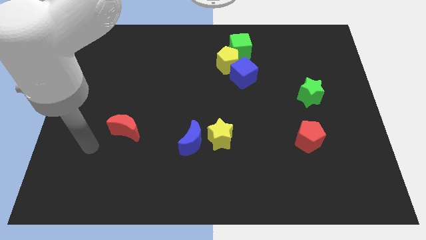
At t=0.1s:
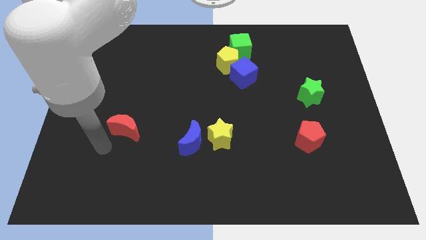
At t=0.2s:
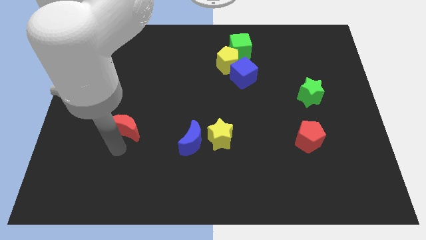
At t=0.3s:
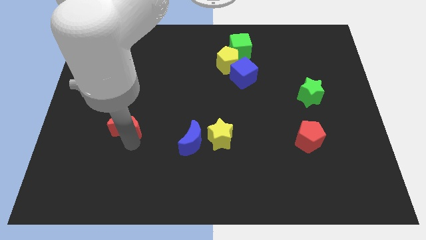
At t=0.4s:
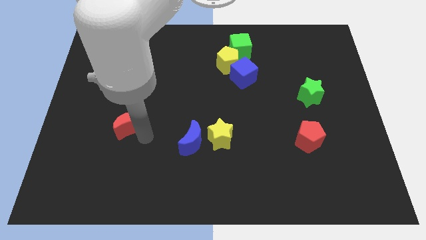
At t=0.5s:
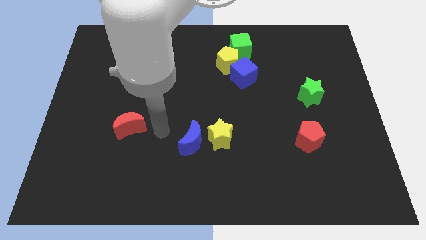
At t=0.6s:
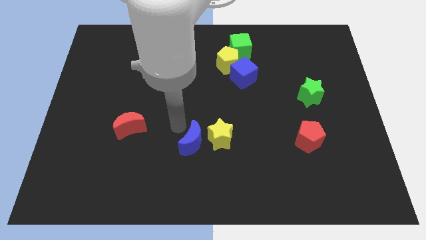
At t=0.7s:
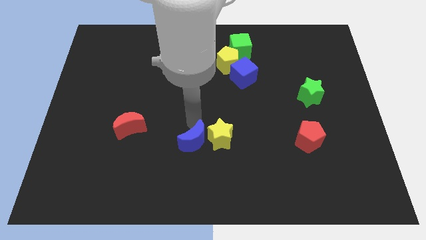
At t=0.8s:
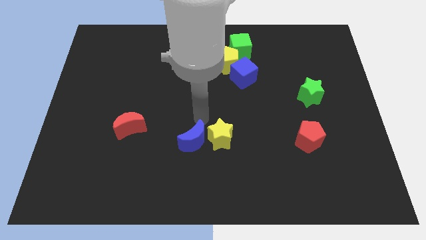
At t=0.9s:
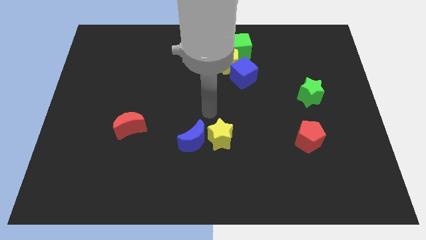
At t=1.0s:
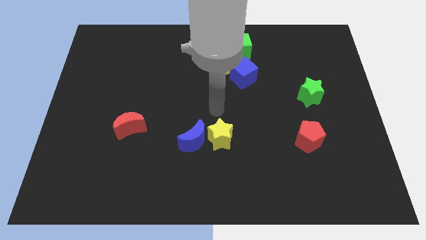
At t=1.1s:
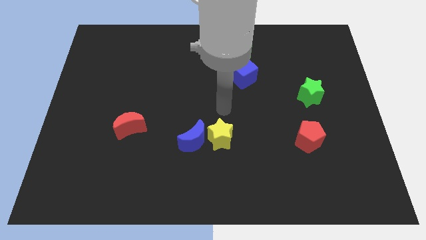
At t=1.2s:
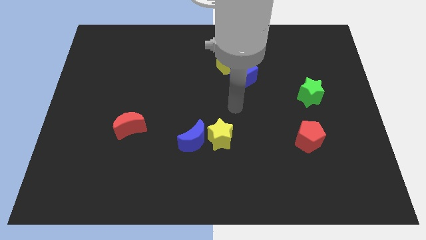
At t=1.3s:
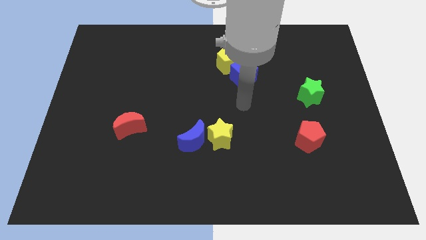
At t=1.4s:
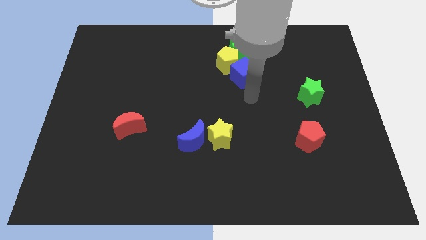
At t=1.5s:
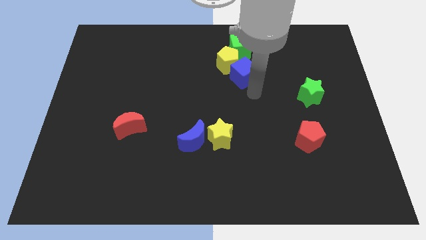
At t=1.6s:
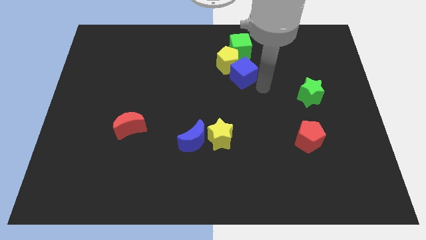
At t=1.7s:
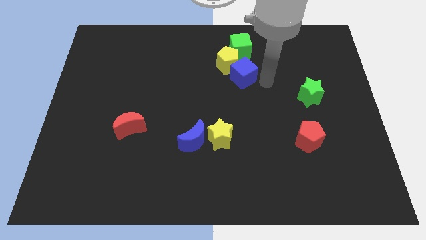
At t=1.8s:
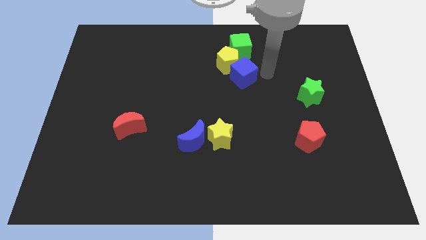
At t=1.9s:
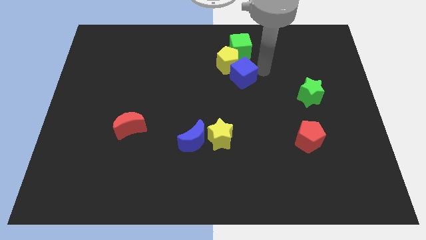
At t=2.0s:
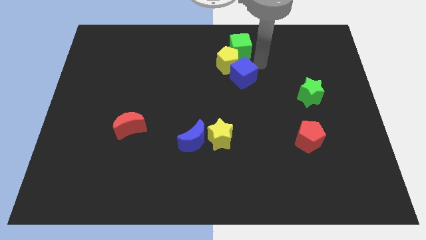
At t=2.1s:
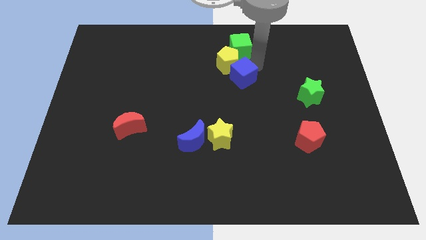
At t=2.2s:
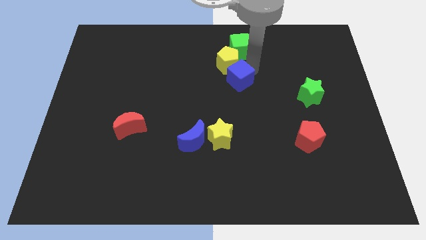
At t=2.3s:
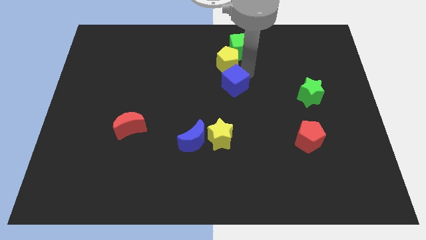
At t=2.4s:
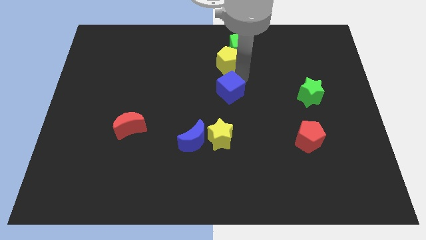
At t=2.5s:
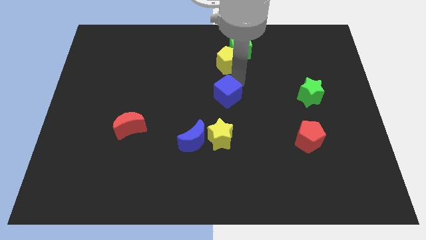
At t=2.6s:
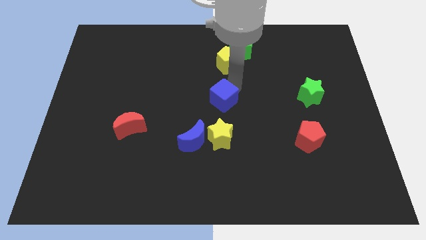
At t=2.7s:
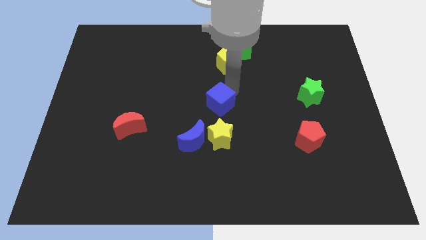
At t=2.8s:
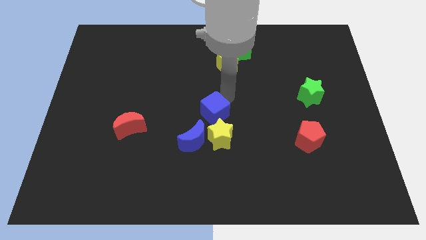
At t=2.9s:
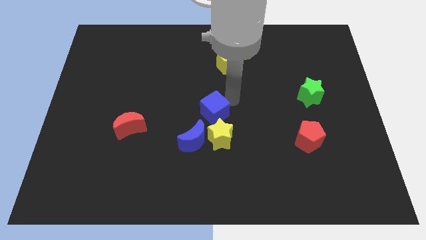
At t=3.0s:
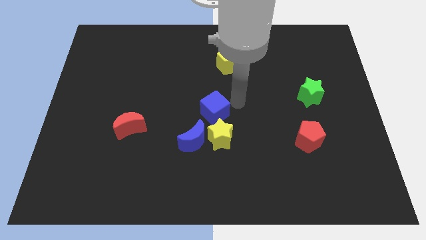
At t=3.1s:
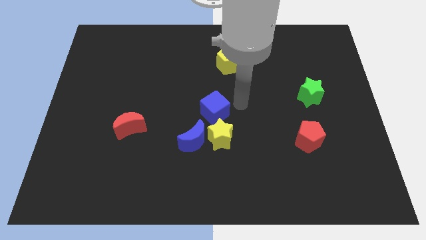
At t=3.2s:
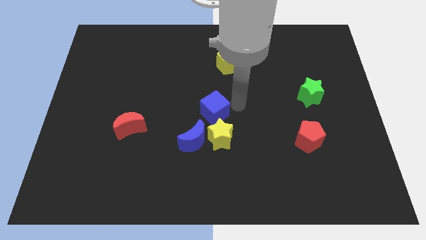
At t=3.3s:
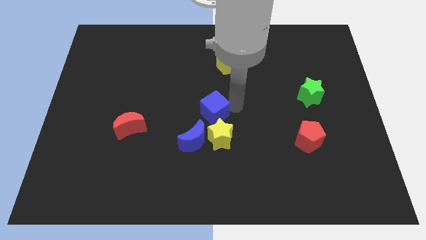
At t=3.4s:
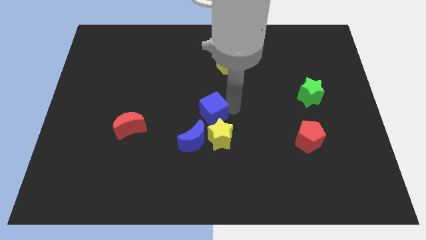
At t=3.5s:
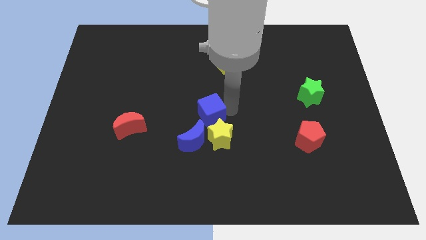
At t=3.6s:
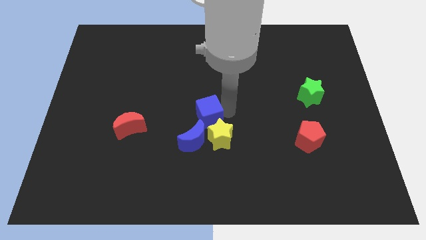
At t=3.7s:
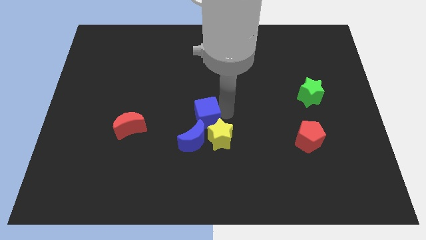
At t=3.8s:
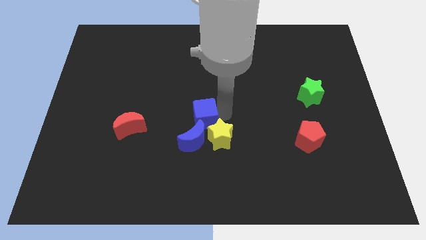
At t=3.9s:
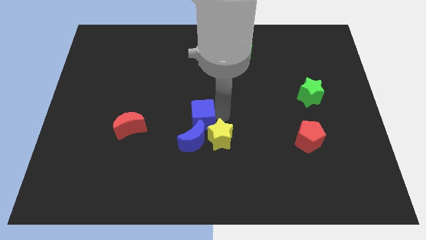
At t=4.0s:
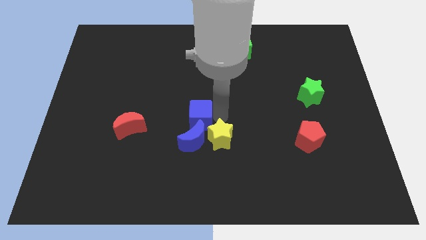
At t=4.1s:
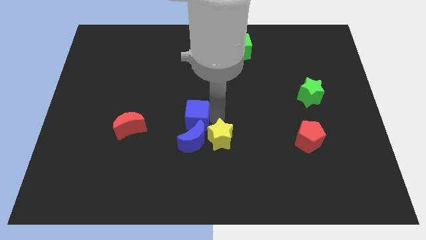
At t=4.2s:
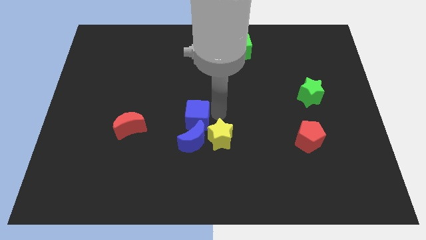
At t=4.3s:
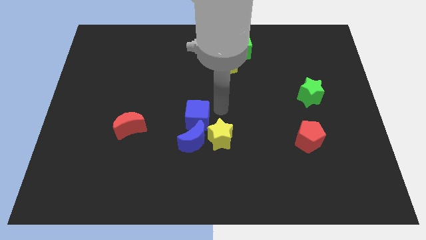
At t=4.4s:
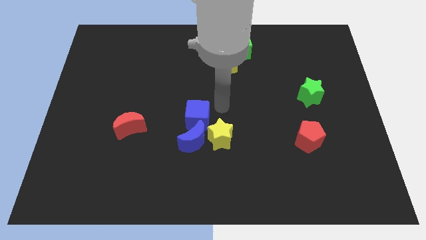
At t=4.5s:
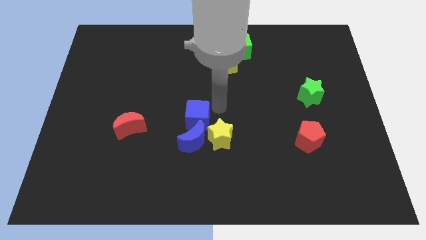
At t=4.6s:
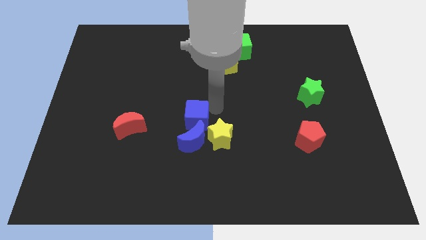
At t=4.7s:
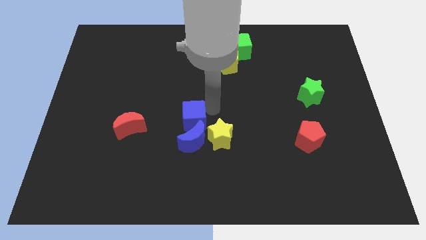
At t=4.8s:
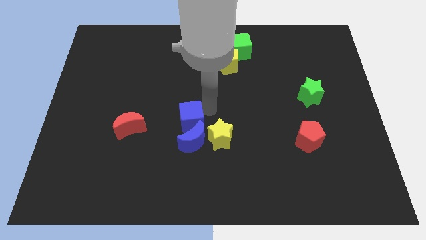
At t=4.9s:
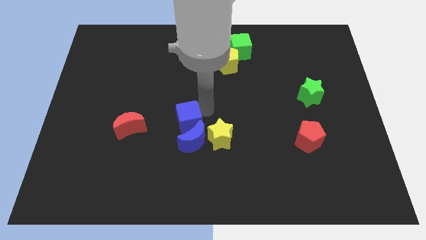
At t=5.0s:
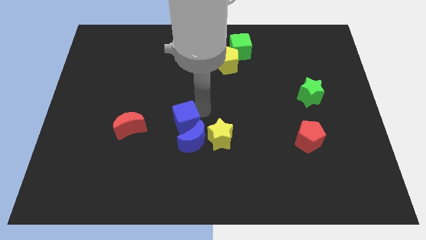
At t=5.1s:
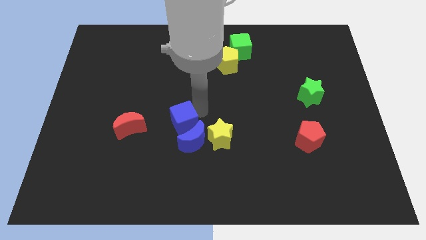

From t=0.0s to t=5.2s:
slide the blue cube down and left diagonally

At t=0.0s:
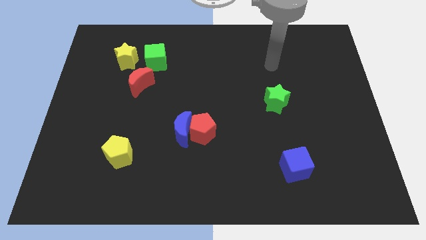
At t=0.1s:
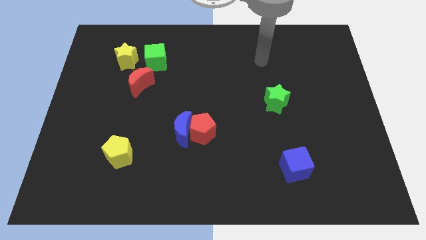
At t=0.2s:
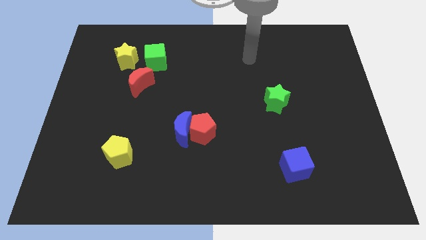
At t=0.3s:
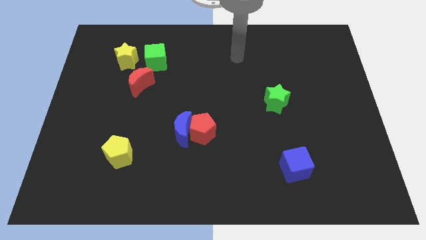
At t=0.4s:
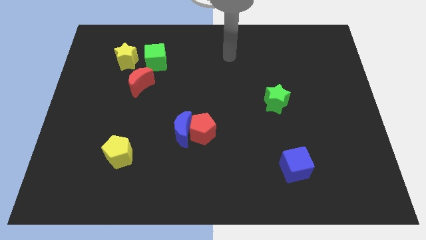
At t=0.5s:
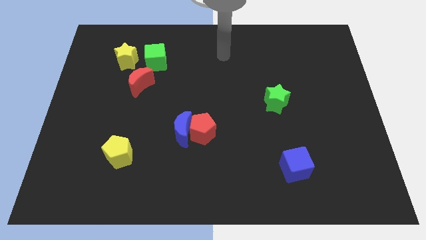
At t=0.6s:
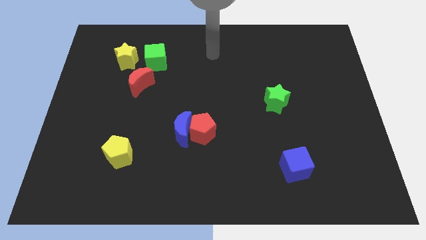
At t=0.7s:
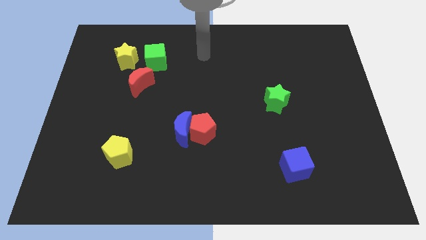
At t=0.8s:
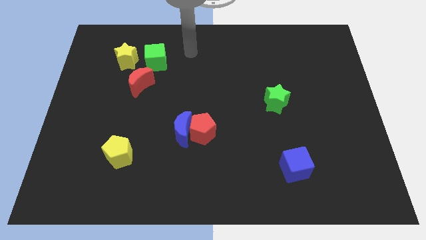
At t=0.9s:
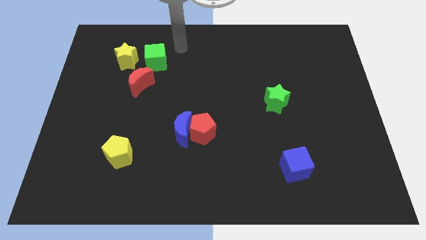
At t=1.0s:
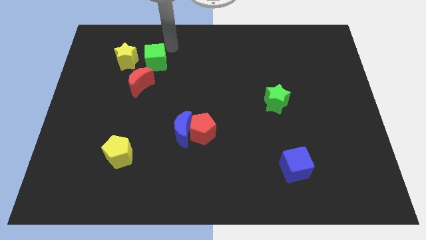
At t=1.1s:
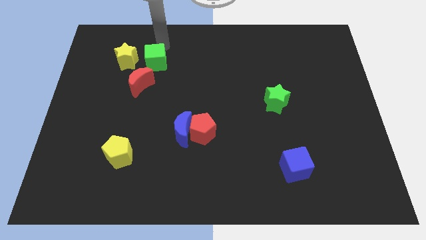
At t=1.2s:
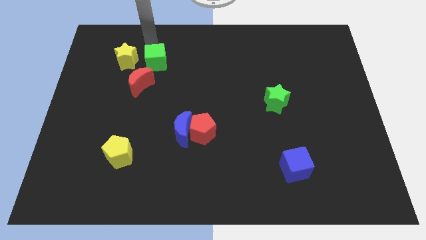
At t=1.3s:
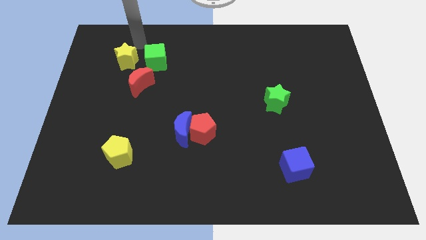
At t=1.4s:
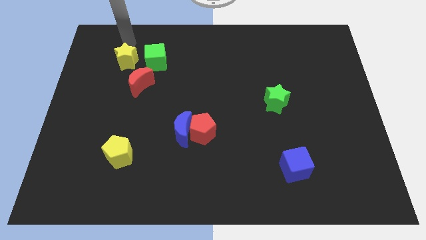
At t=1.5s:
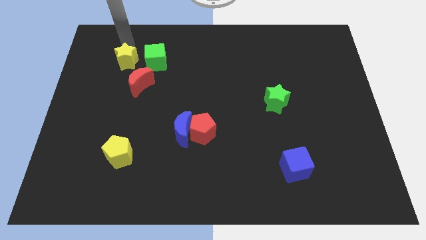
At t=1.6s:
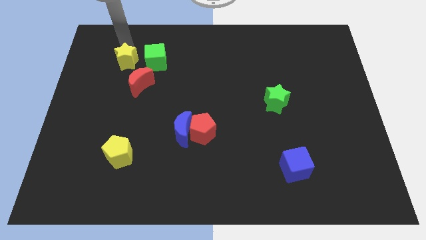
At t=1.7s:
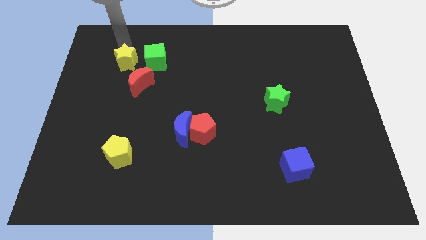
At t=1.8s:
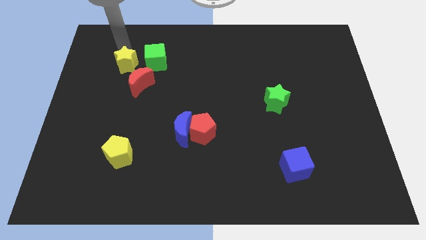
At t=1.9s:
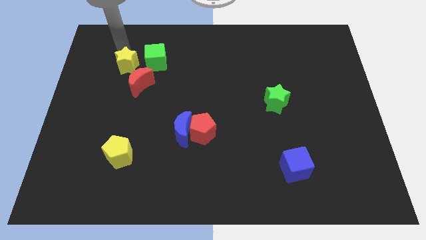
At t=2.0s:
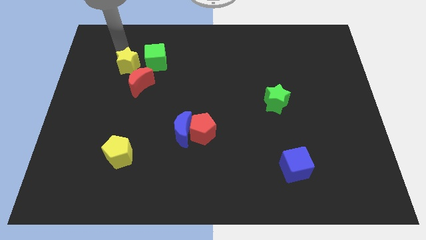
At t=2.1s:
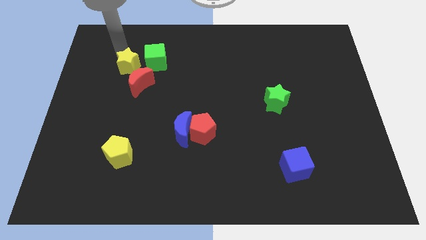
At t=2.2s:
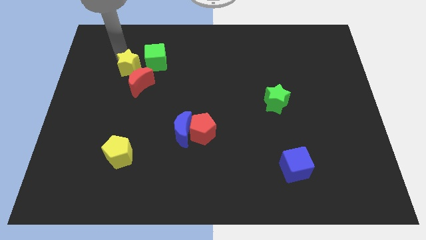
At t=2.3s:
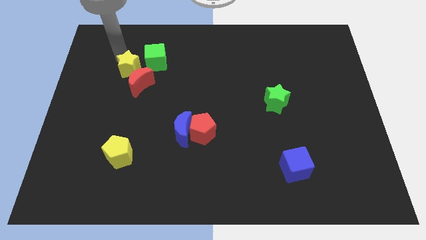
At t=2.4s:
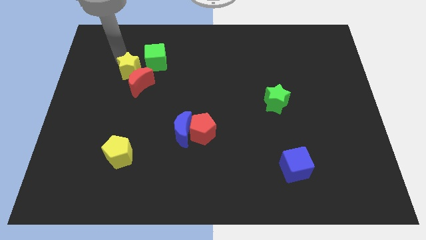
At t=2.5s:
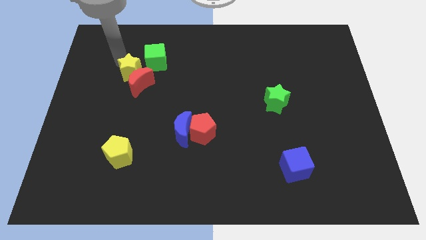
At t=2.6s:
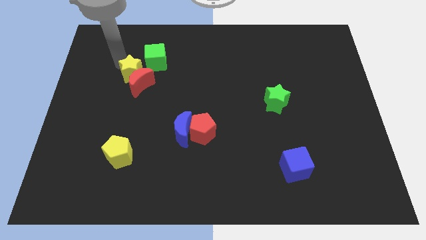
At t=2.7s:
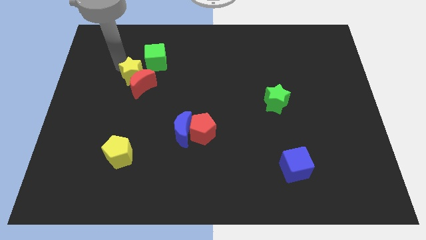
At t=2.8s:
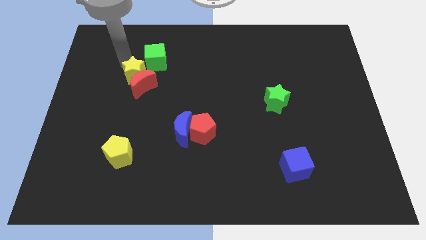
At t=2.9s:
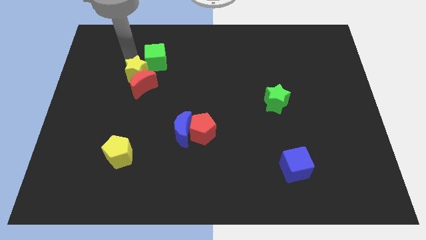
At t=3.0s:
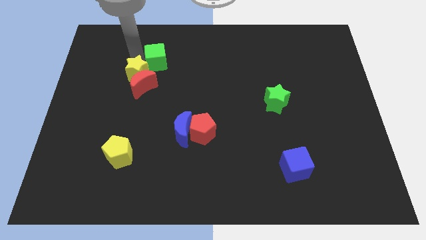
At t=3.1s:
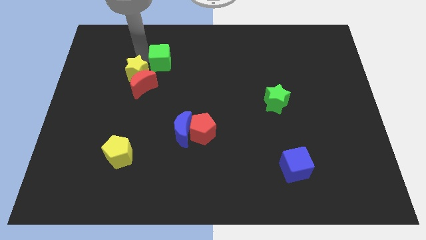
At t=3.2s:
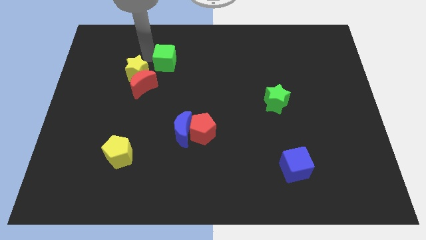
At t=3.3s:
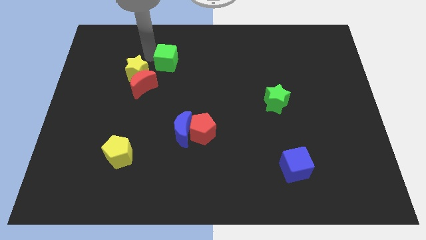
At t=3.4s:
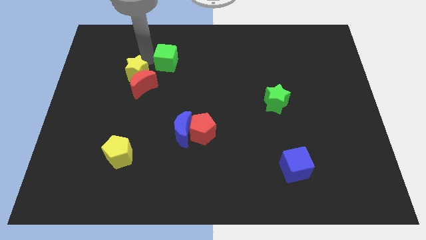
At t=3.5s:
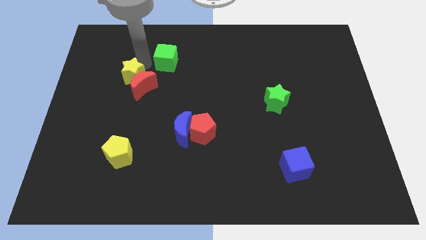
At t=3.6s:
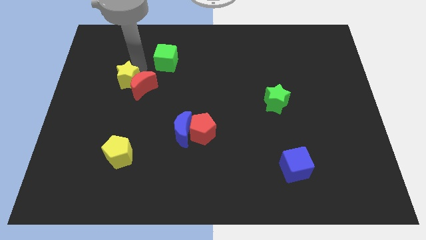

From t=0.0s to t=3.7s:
move the yellow star downwards somewhat
